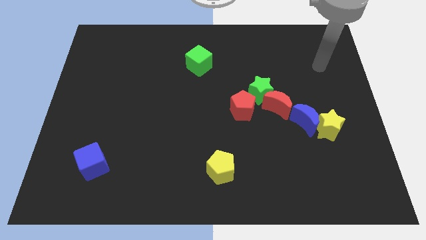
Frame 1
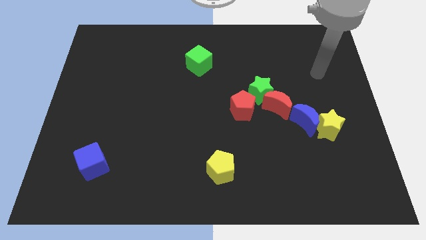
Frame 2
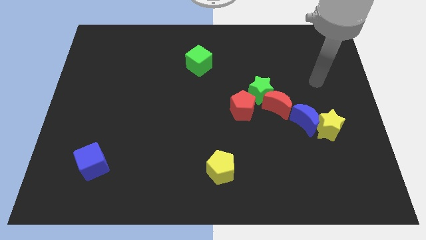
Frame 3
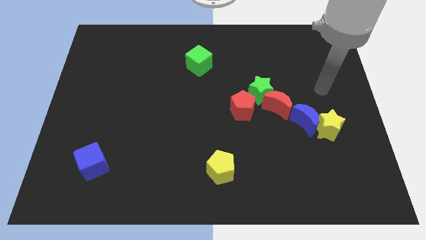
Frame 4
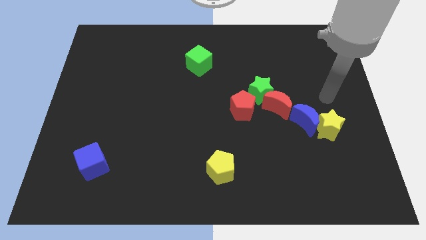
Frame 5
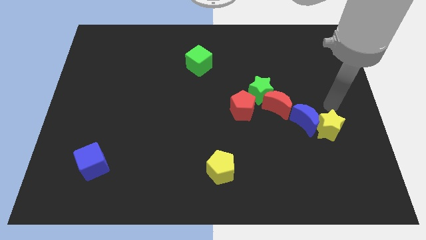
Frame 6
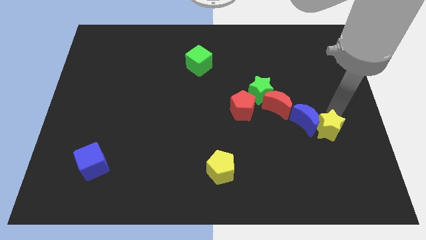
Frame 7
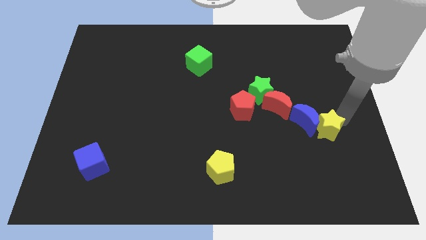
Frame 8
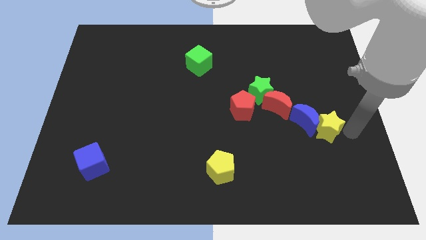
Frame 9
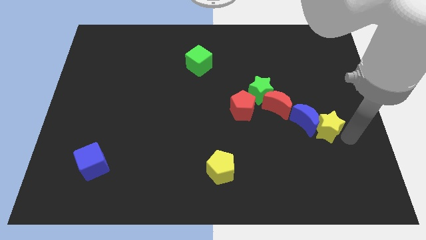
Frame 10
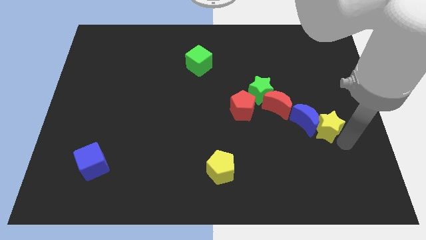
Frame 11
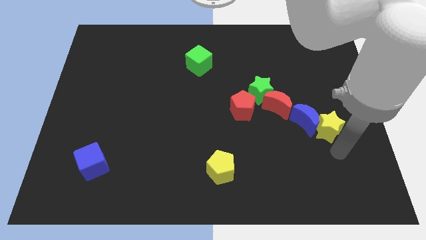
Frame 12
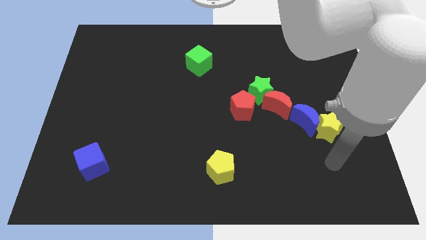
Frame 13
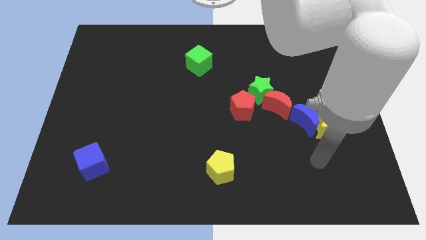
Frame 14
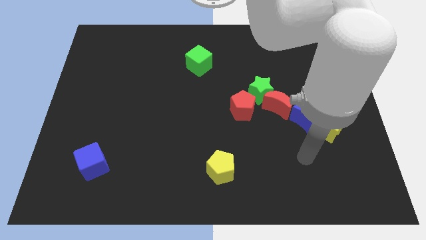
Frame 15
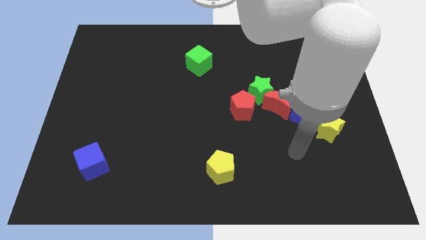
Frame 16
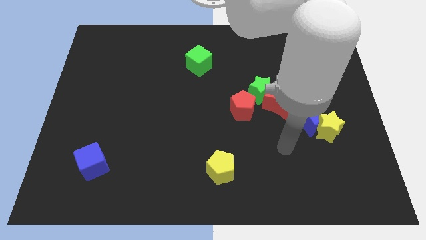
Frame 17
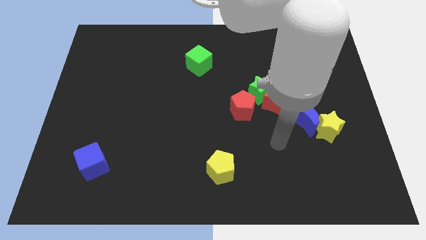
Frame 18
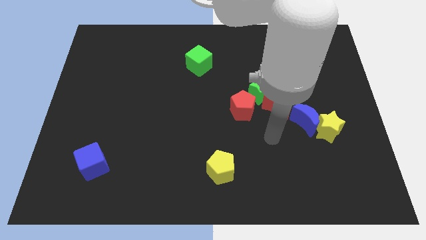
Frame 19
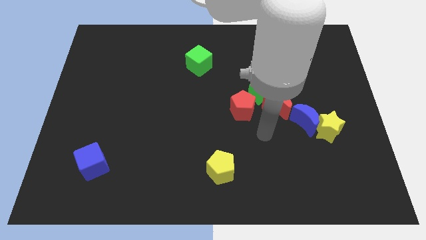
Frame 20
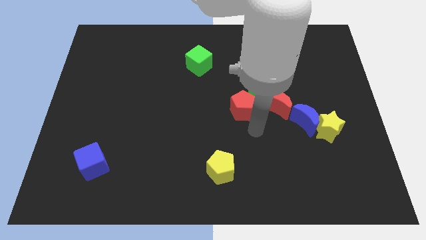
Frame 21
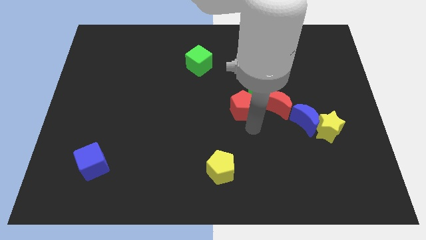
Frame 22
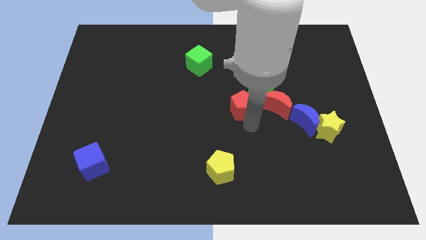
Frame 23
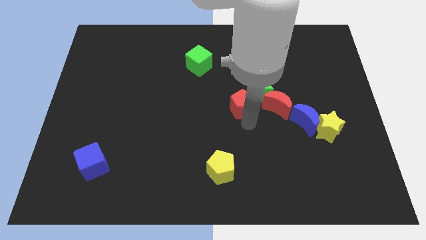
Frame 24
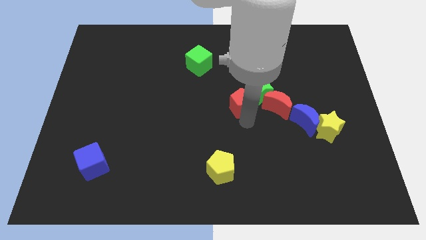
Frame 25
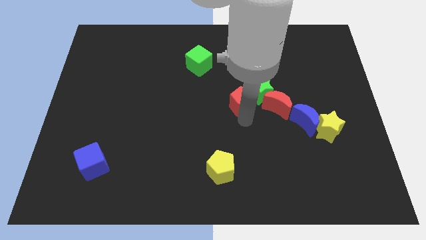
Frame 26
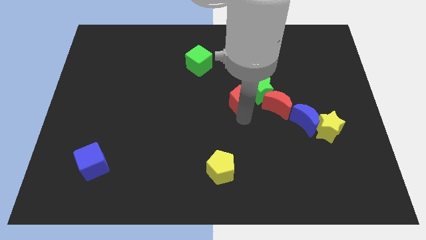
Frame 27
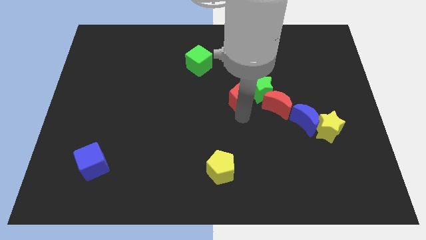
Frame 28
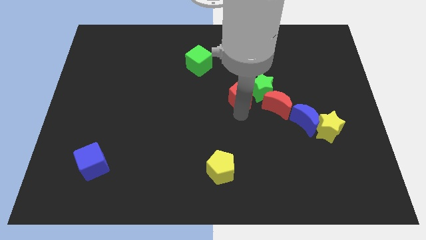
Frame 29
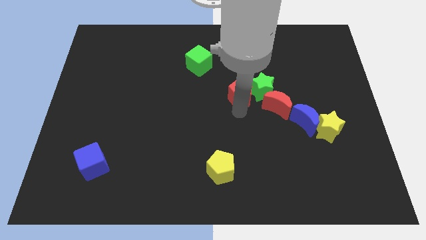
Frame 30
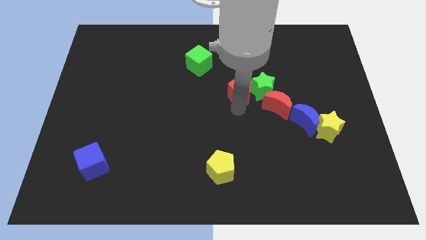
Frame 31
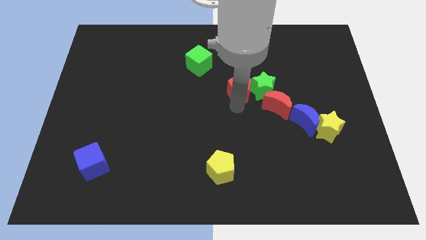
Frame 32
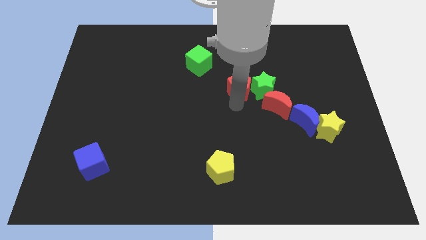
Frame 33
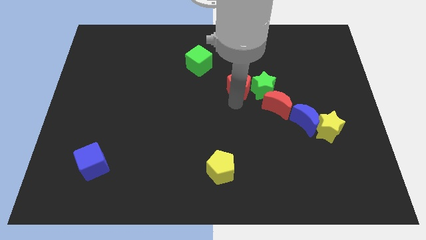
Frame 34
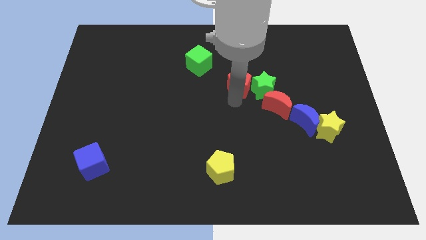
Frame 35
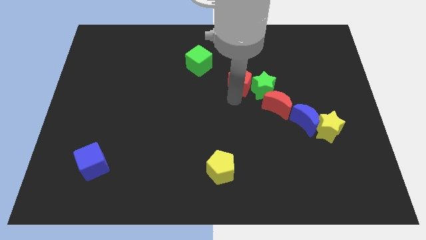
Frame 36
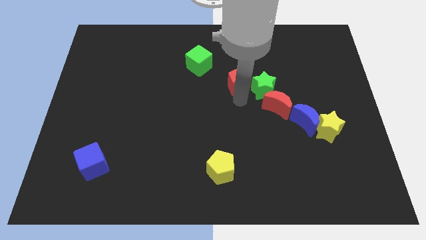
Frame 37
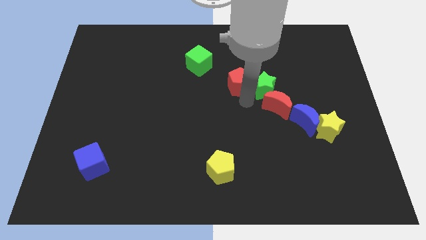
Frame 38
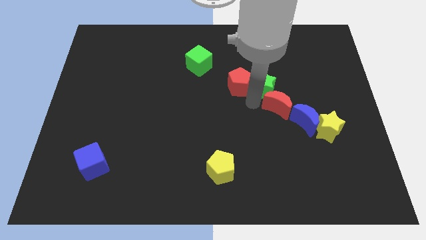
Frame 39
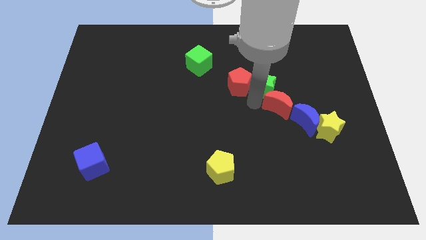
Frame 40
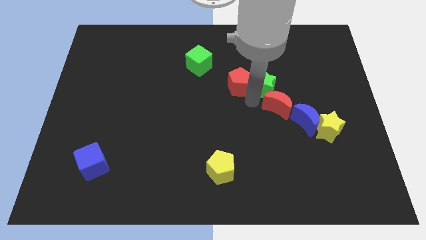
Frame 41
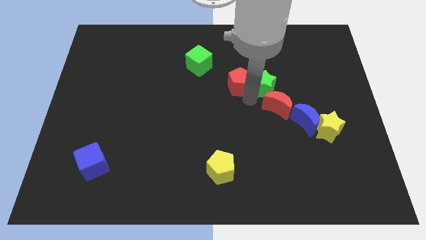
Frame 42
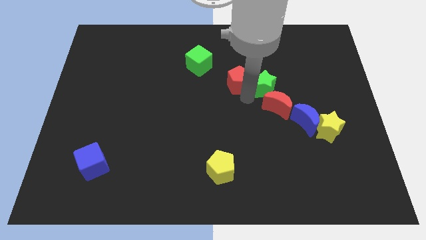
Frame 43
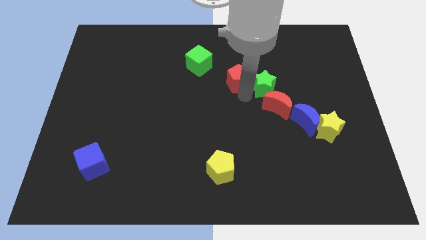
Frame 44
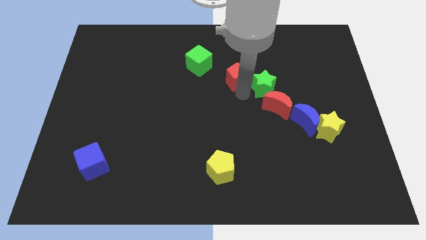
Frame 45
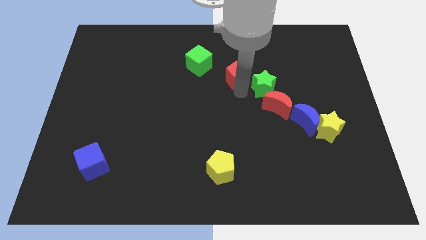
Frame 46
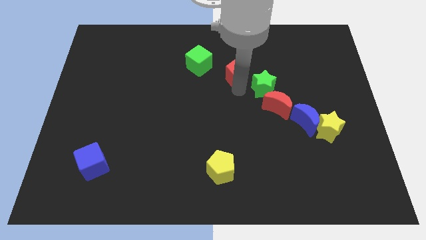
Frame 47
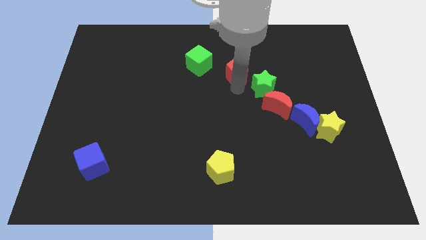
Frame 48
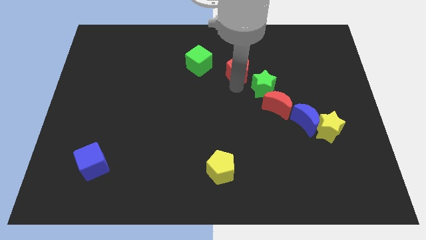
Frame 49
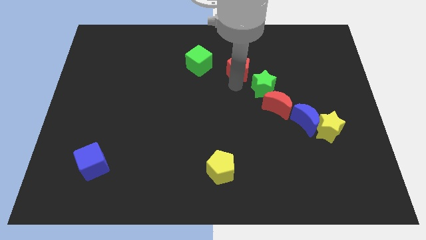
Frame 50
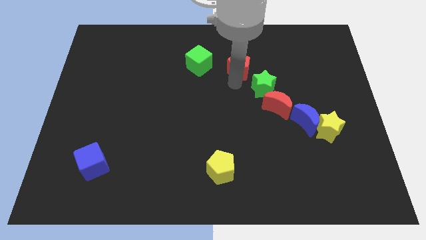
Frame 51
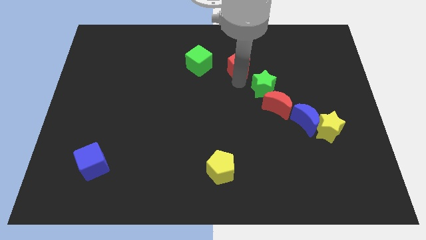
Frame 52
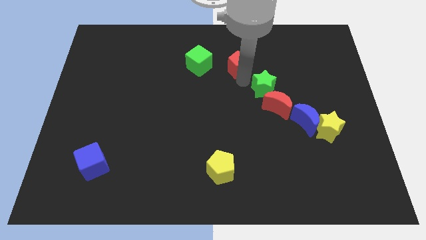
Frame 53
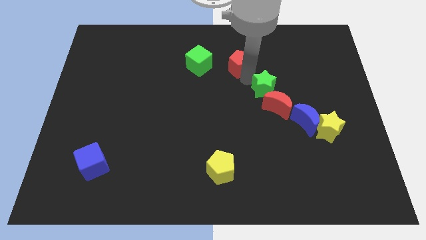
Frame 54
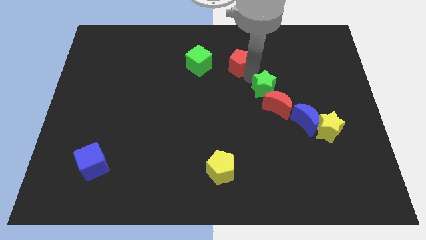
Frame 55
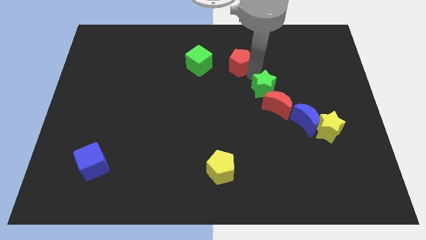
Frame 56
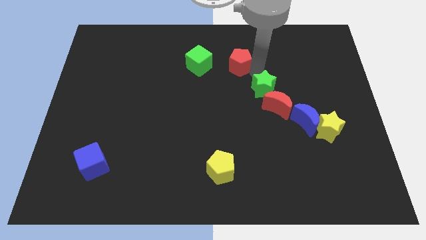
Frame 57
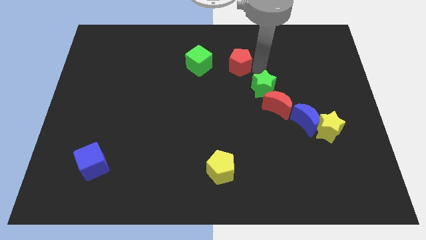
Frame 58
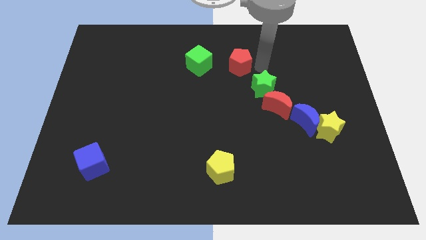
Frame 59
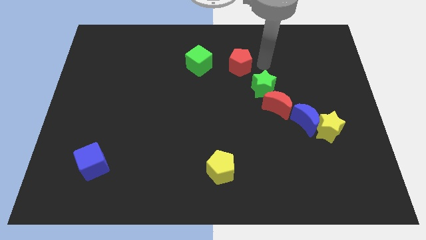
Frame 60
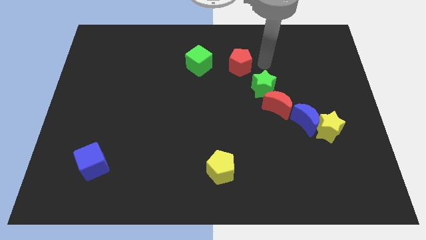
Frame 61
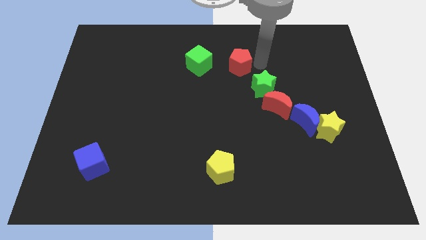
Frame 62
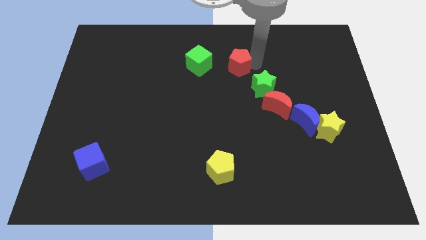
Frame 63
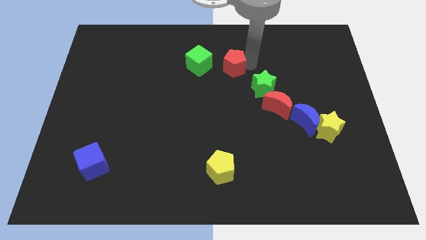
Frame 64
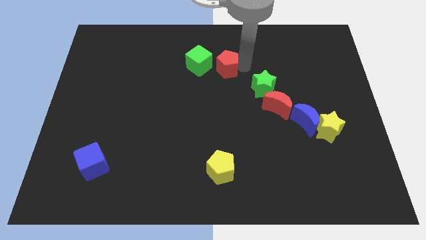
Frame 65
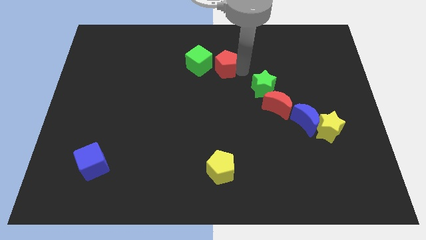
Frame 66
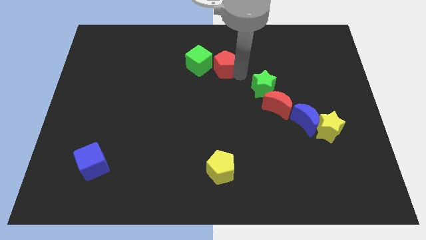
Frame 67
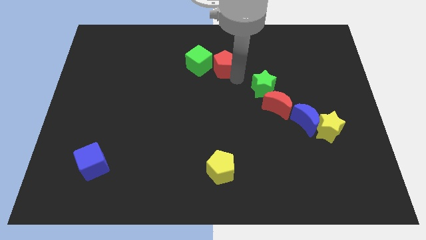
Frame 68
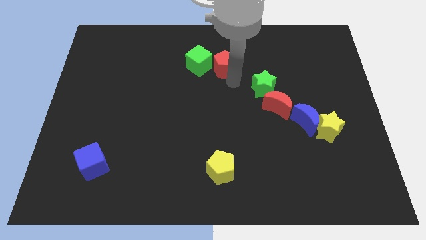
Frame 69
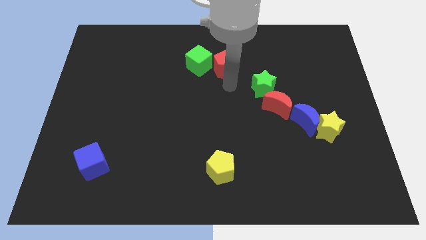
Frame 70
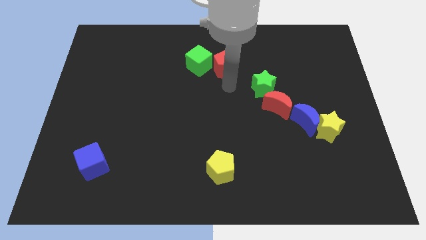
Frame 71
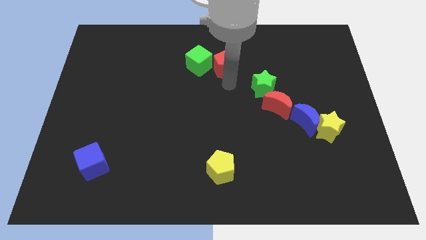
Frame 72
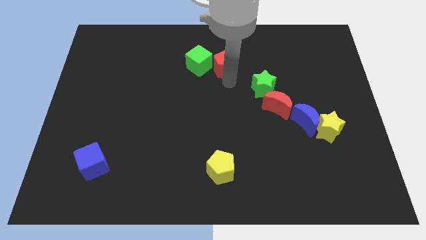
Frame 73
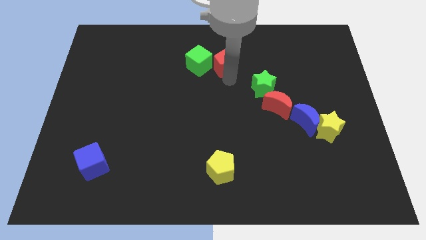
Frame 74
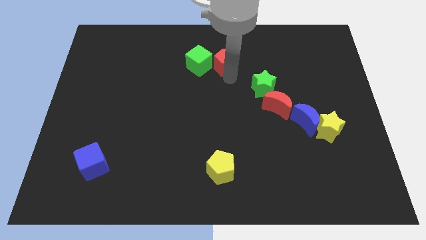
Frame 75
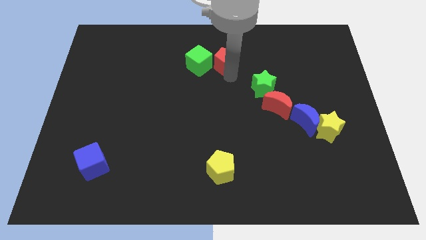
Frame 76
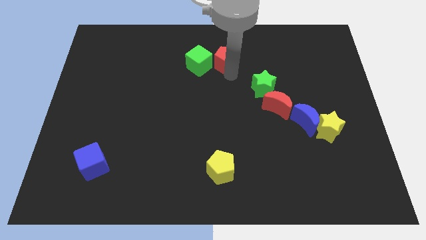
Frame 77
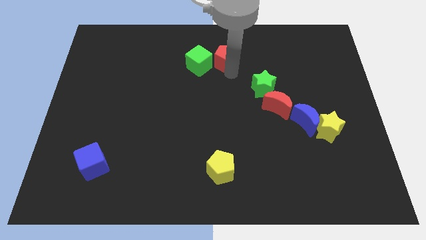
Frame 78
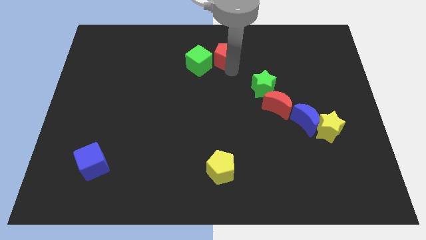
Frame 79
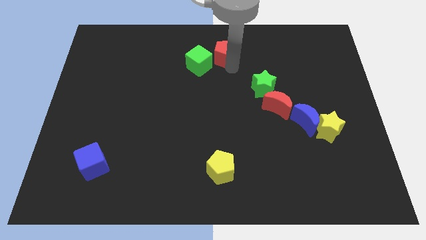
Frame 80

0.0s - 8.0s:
push the red pentagon to the top side
